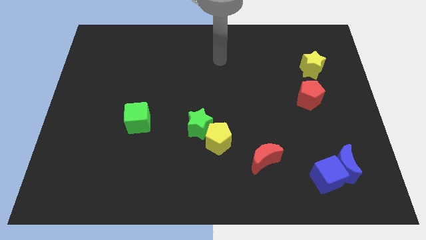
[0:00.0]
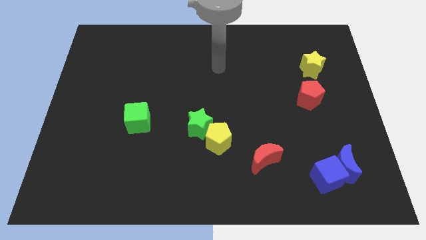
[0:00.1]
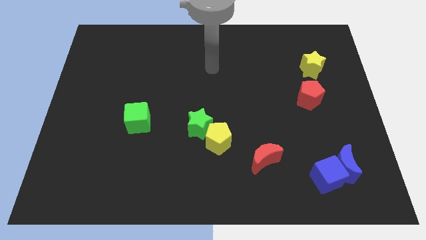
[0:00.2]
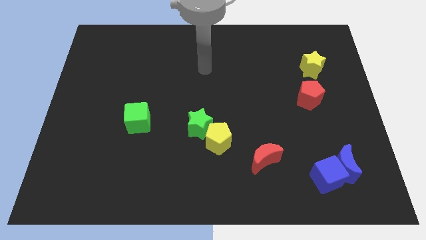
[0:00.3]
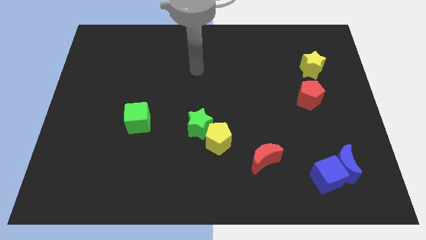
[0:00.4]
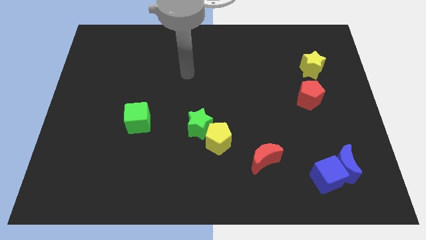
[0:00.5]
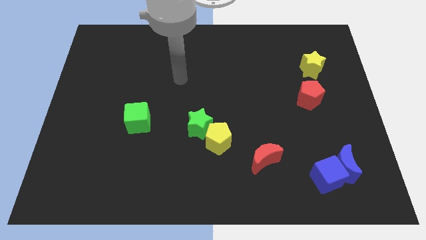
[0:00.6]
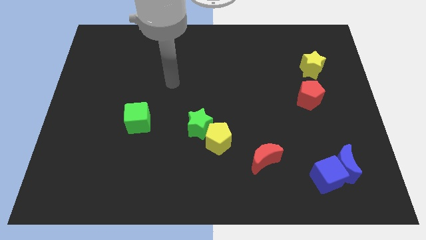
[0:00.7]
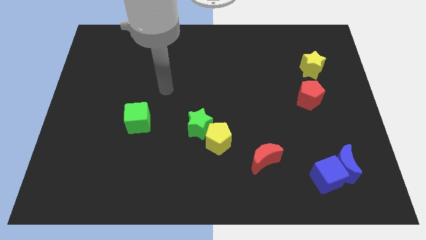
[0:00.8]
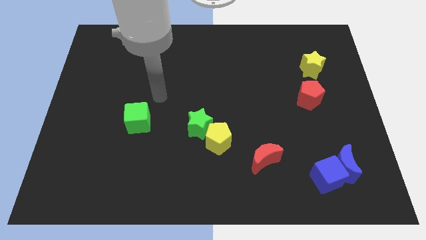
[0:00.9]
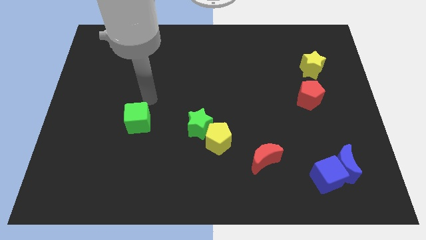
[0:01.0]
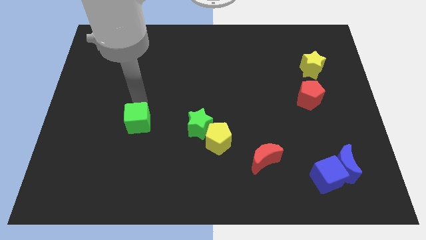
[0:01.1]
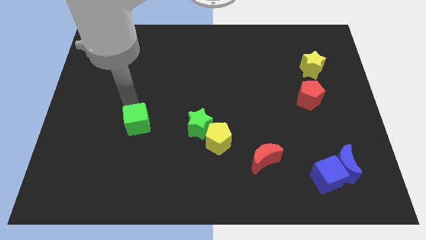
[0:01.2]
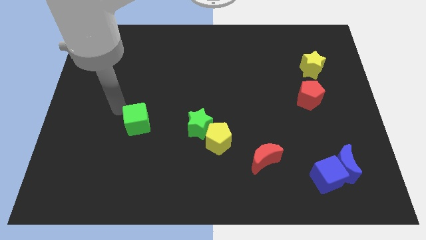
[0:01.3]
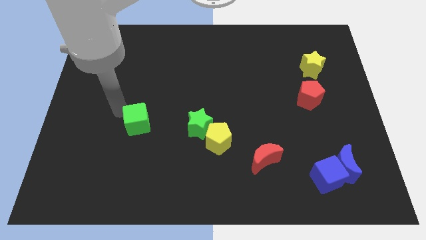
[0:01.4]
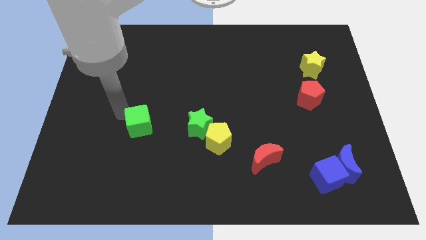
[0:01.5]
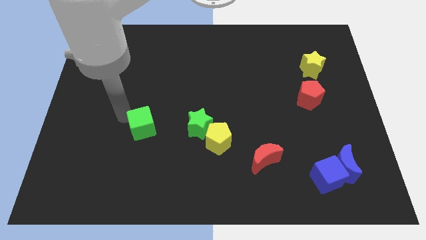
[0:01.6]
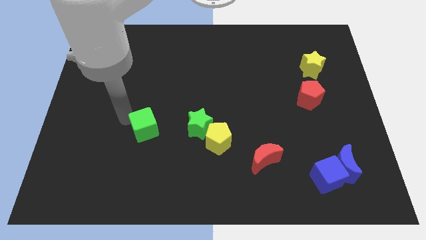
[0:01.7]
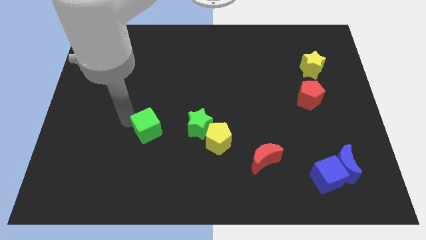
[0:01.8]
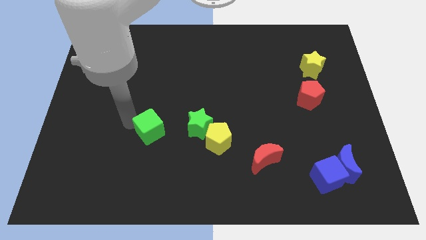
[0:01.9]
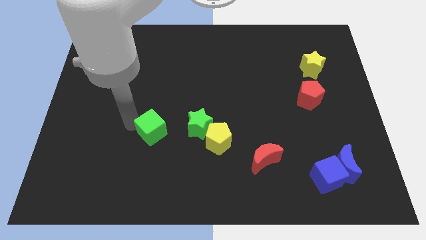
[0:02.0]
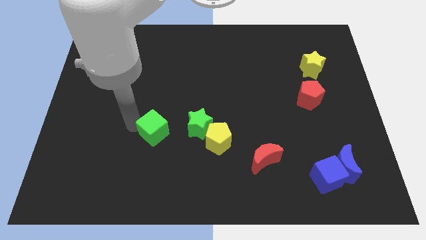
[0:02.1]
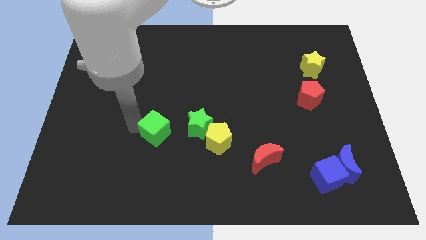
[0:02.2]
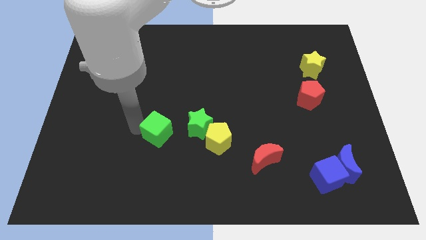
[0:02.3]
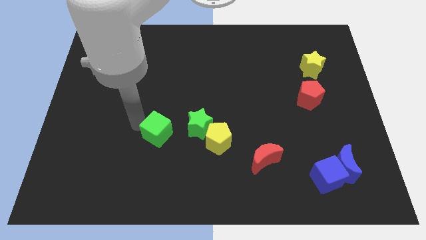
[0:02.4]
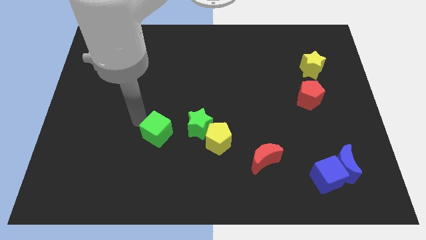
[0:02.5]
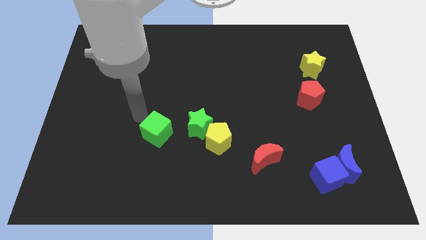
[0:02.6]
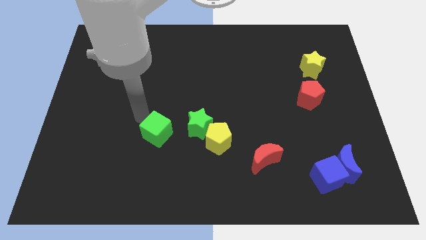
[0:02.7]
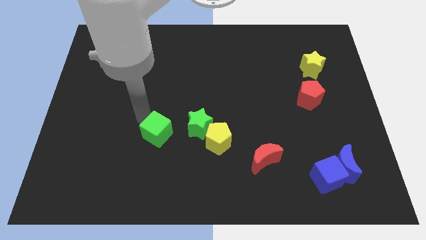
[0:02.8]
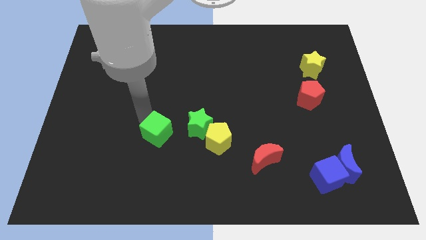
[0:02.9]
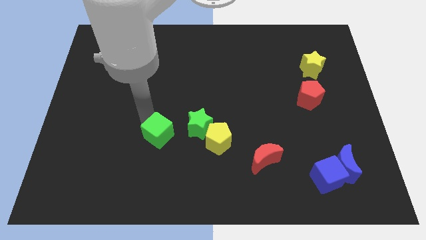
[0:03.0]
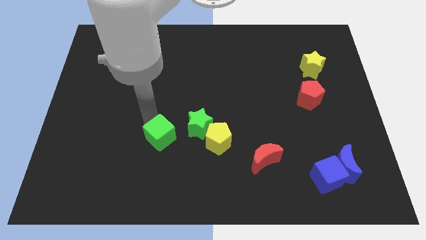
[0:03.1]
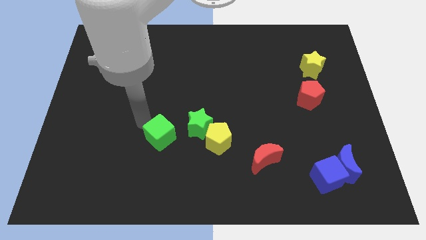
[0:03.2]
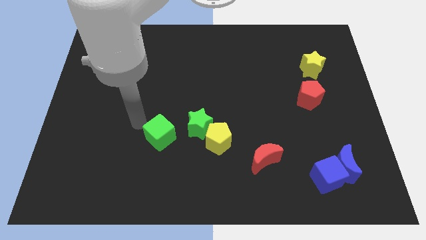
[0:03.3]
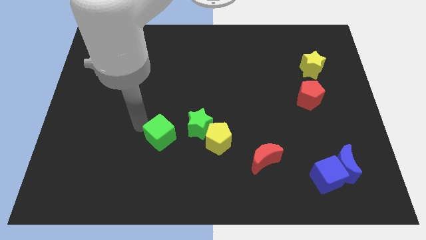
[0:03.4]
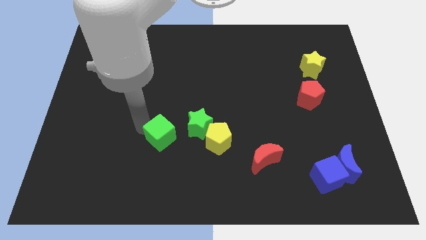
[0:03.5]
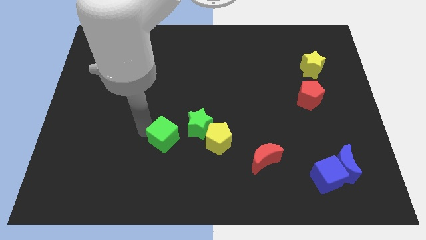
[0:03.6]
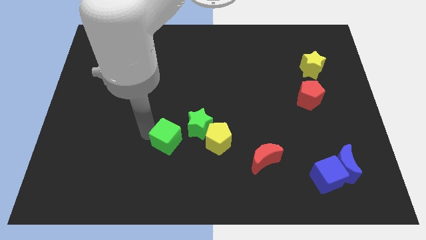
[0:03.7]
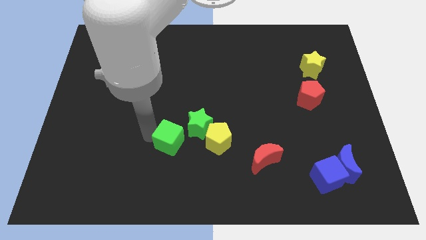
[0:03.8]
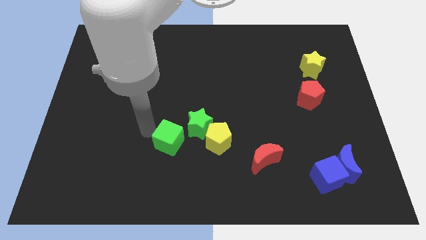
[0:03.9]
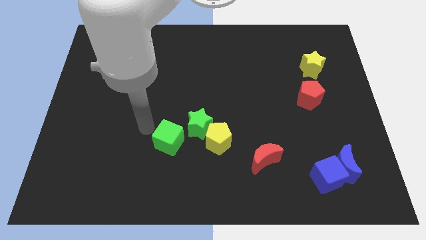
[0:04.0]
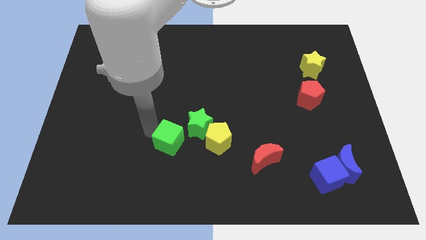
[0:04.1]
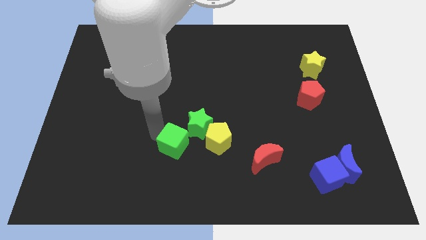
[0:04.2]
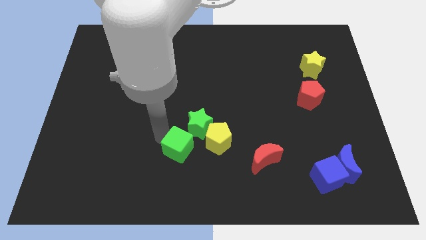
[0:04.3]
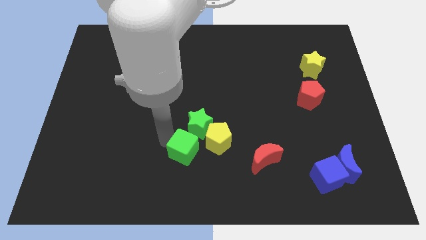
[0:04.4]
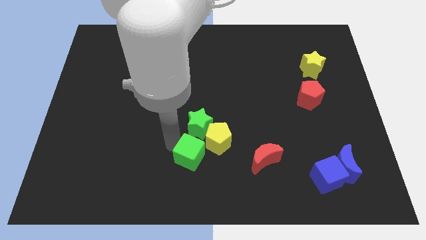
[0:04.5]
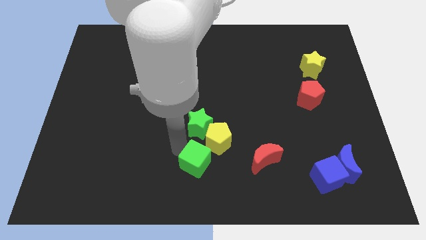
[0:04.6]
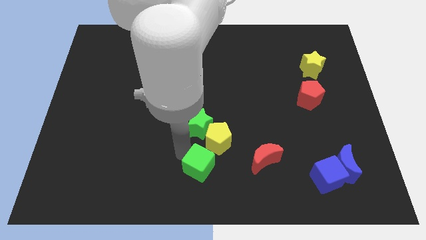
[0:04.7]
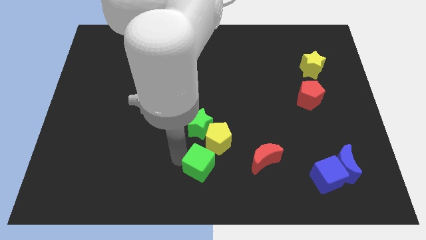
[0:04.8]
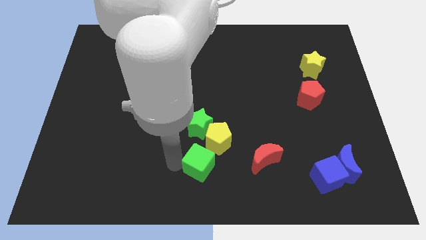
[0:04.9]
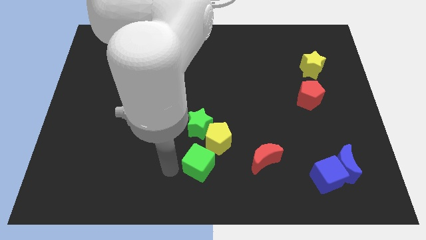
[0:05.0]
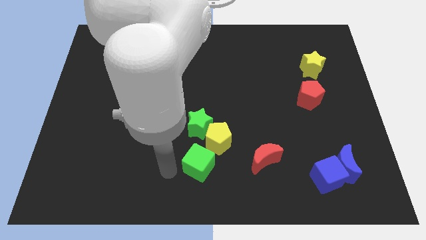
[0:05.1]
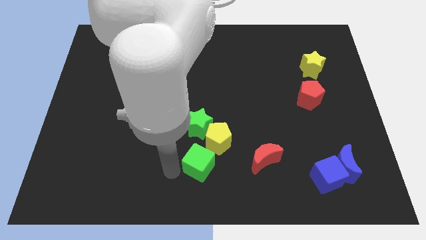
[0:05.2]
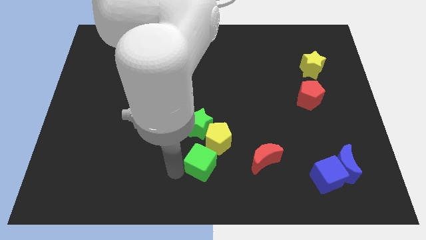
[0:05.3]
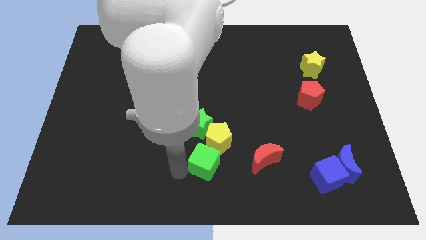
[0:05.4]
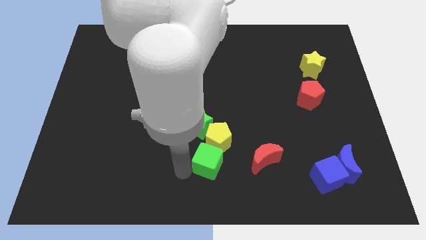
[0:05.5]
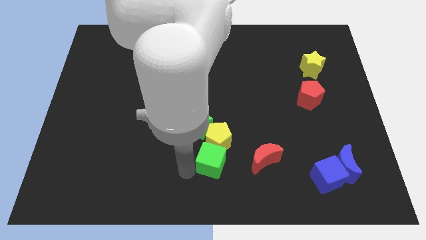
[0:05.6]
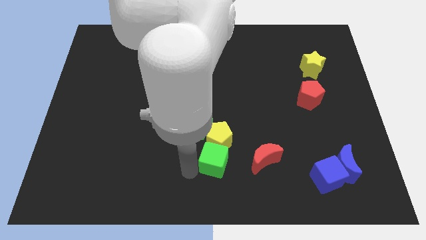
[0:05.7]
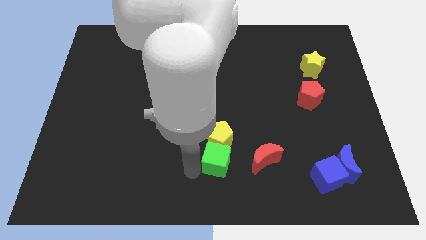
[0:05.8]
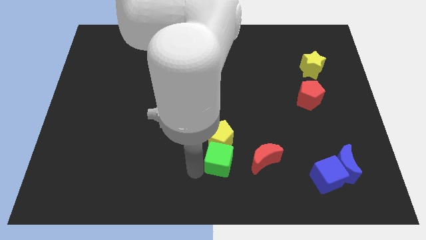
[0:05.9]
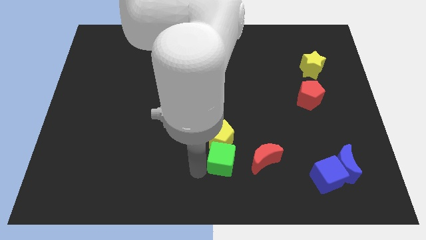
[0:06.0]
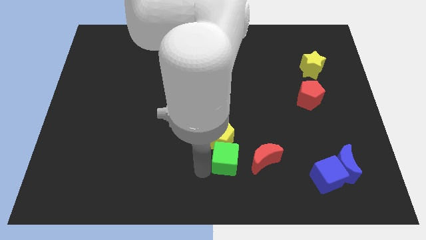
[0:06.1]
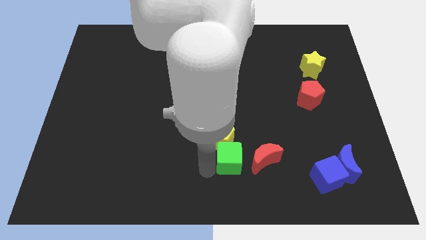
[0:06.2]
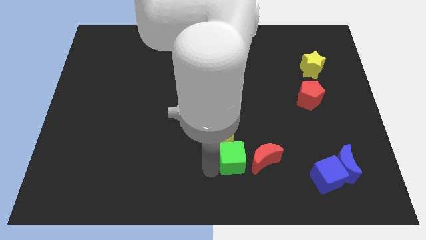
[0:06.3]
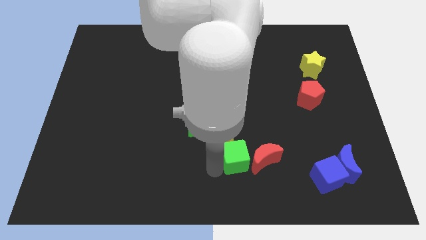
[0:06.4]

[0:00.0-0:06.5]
move the green cube towards the red moon
